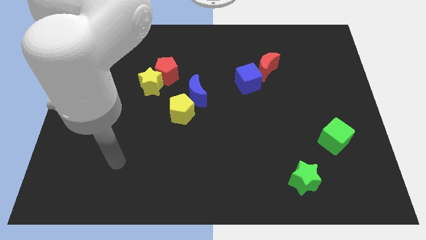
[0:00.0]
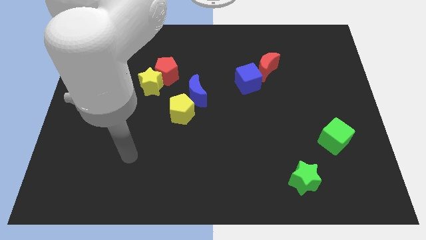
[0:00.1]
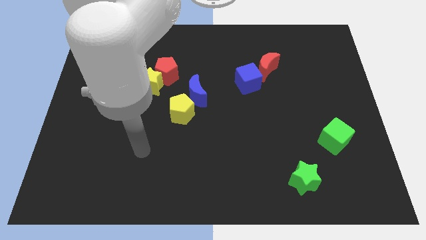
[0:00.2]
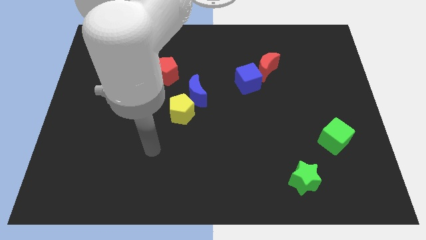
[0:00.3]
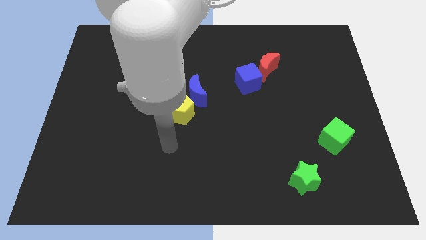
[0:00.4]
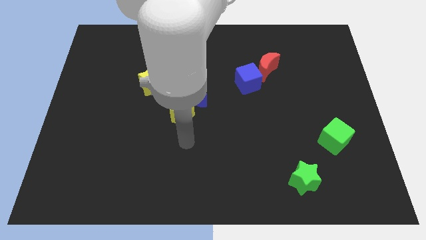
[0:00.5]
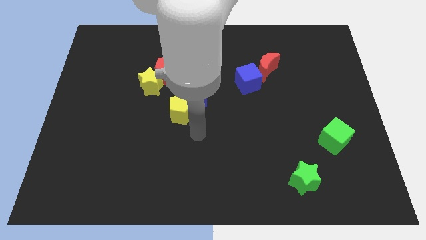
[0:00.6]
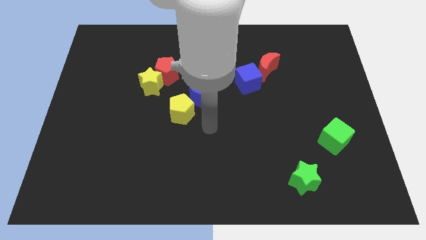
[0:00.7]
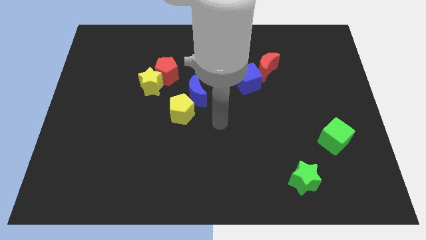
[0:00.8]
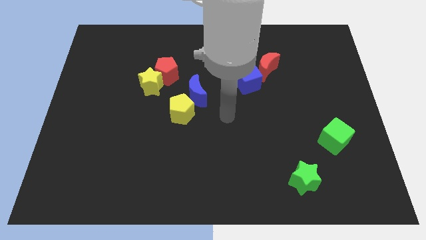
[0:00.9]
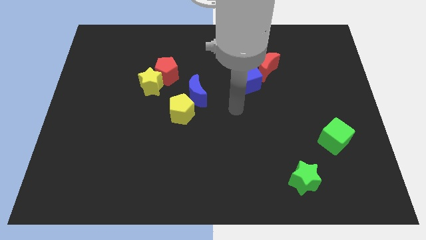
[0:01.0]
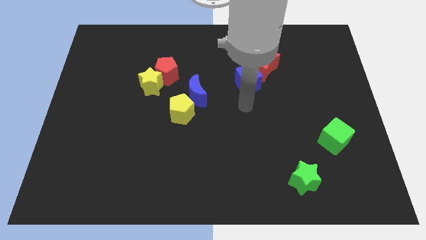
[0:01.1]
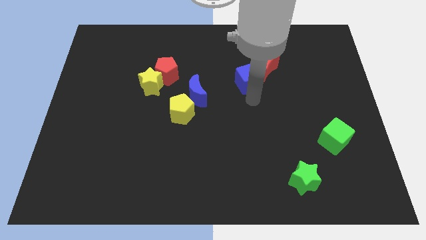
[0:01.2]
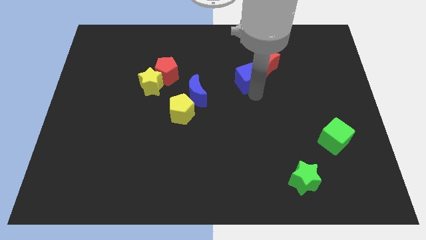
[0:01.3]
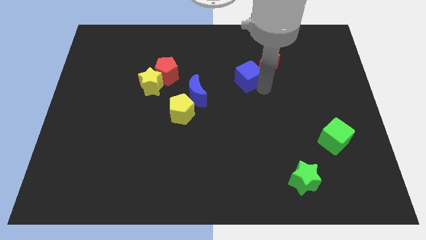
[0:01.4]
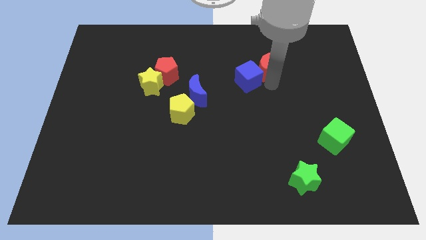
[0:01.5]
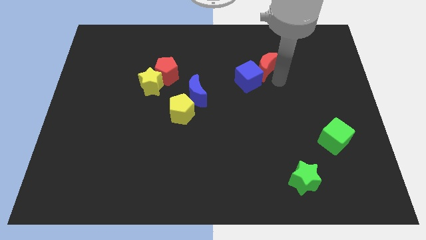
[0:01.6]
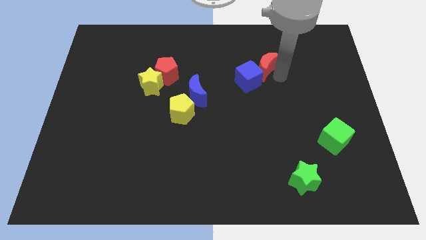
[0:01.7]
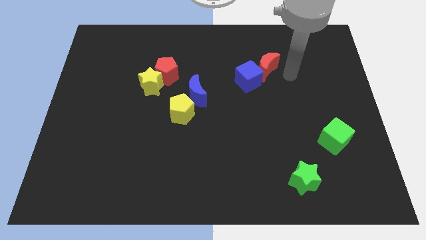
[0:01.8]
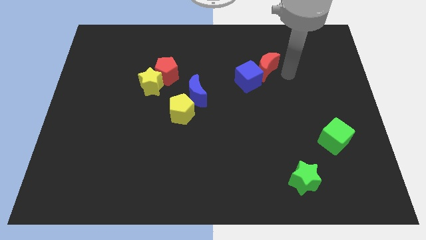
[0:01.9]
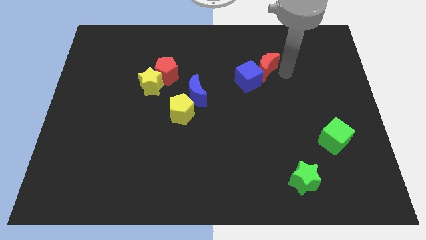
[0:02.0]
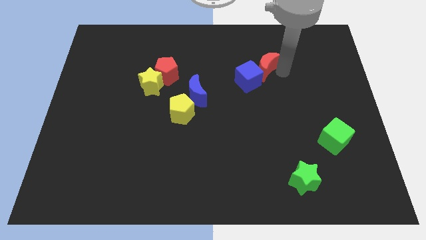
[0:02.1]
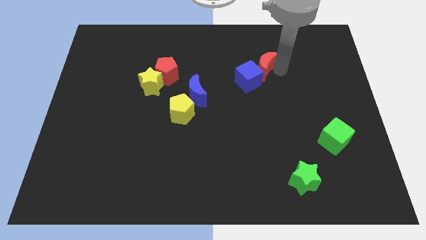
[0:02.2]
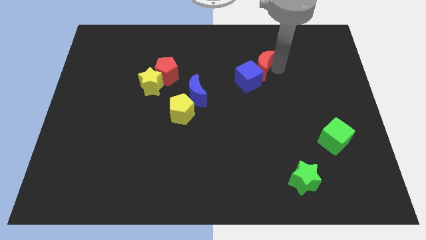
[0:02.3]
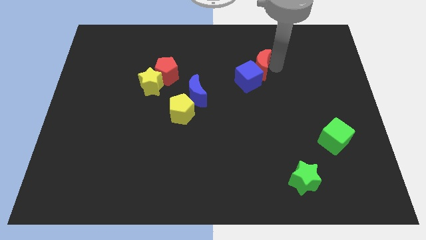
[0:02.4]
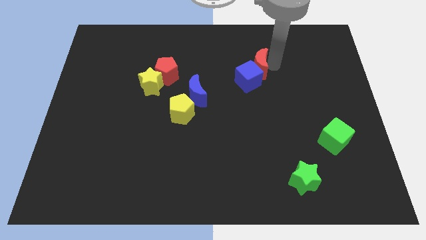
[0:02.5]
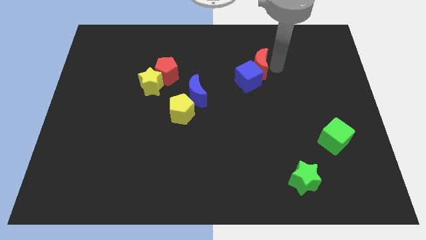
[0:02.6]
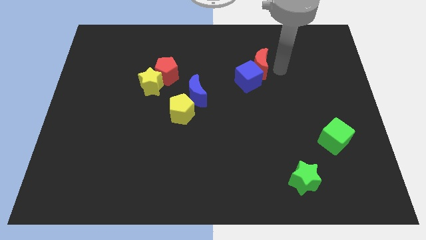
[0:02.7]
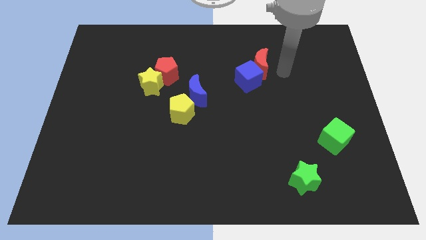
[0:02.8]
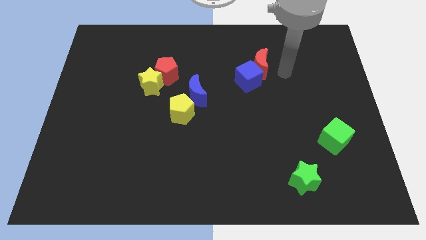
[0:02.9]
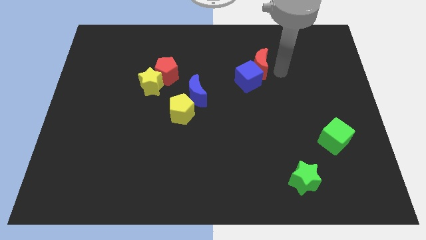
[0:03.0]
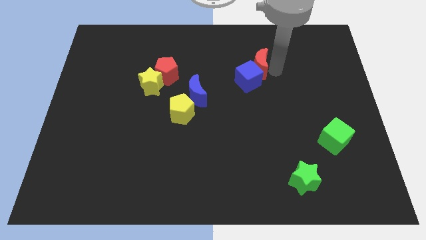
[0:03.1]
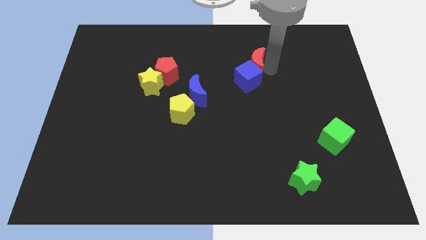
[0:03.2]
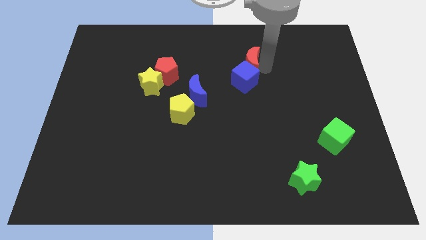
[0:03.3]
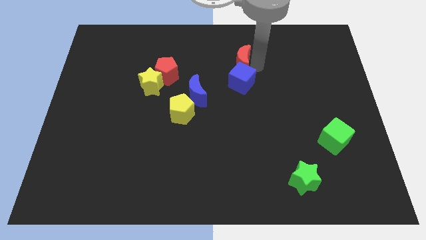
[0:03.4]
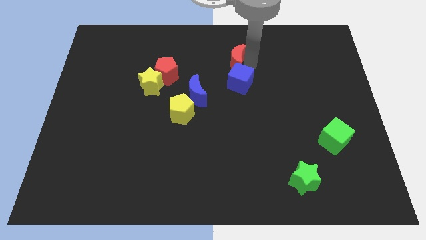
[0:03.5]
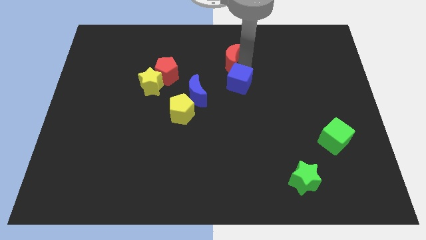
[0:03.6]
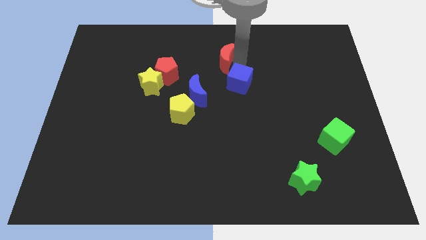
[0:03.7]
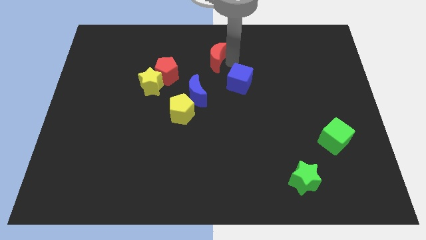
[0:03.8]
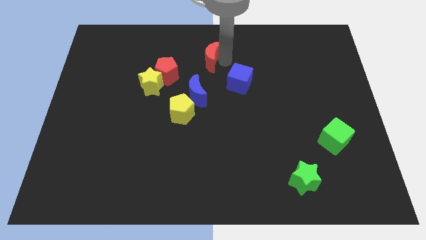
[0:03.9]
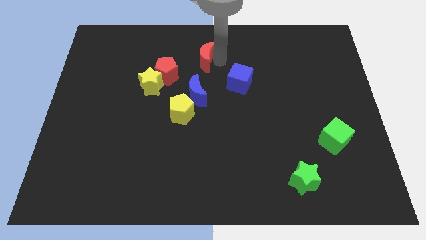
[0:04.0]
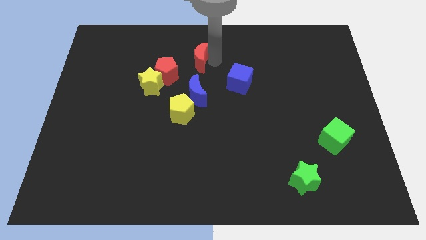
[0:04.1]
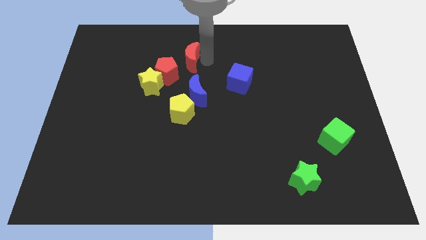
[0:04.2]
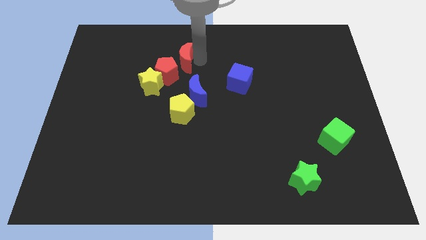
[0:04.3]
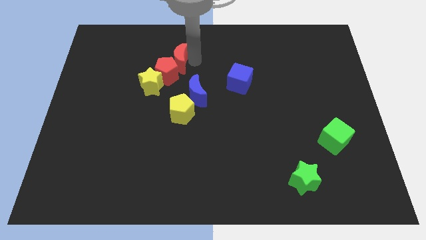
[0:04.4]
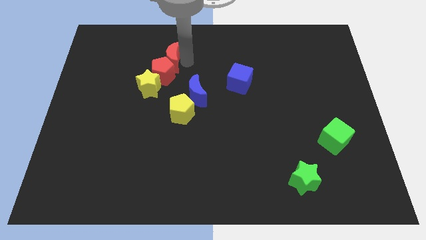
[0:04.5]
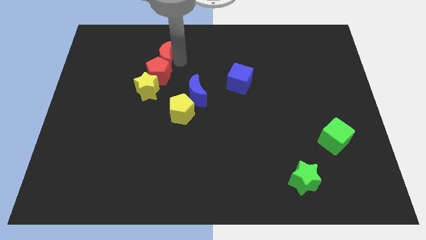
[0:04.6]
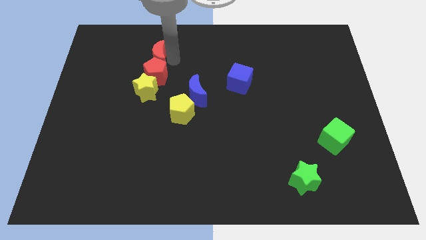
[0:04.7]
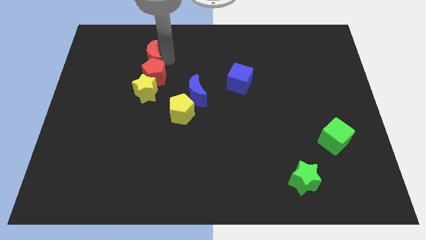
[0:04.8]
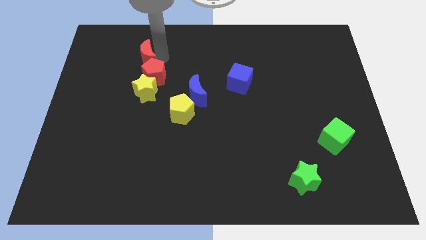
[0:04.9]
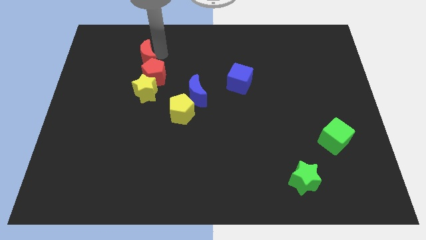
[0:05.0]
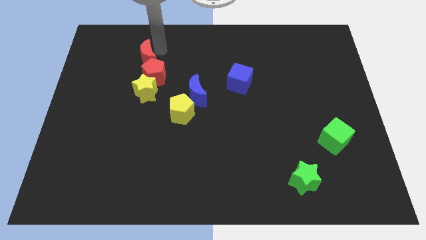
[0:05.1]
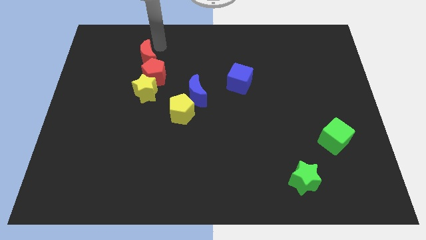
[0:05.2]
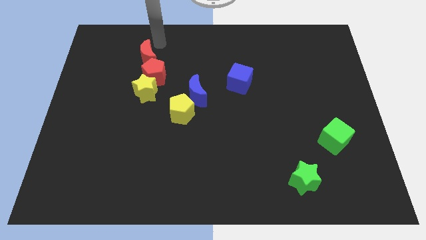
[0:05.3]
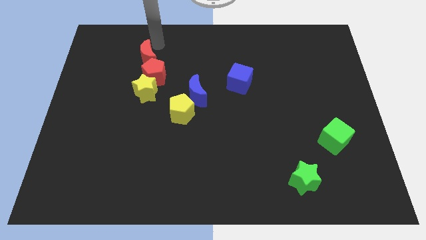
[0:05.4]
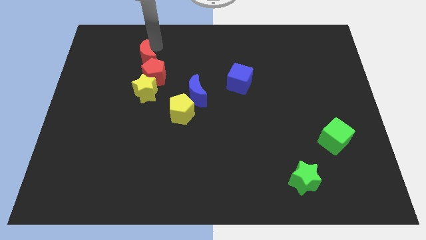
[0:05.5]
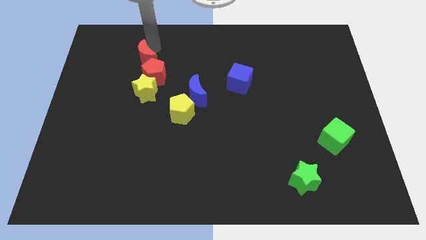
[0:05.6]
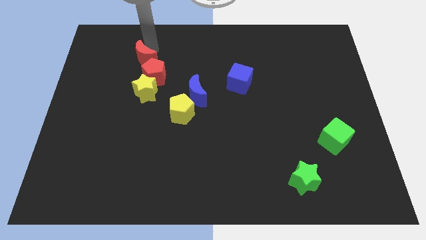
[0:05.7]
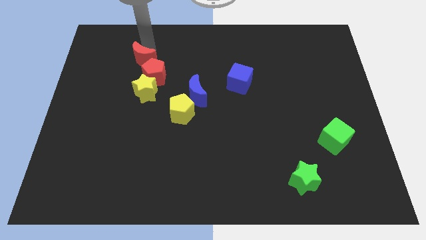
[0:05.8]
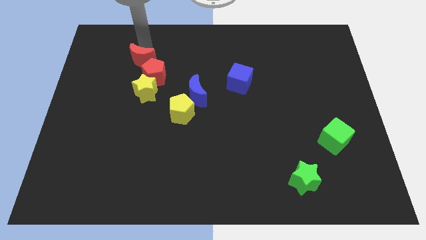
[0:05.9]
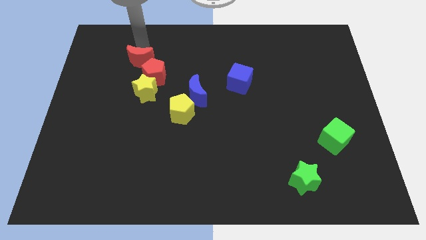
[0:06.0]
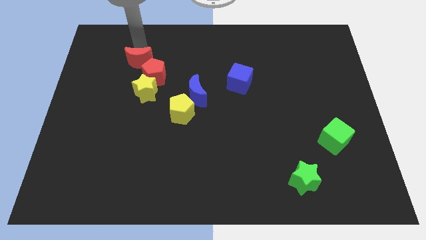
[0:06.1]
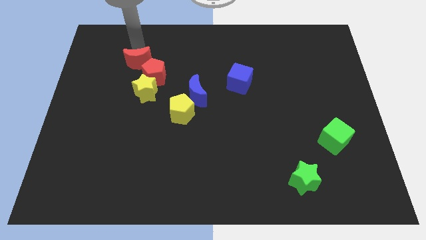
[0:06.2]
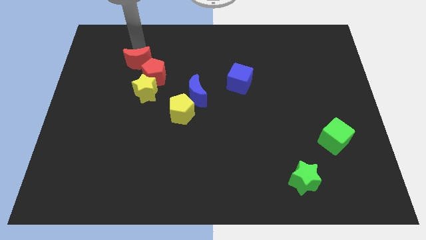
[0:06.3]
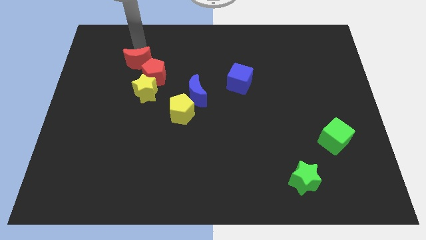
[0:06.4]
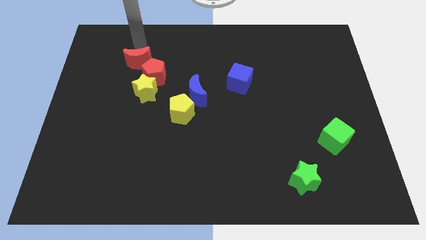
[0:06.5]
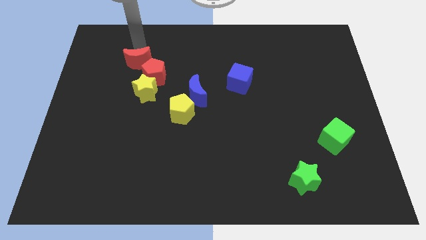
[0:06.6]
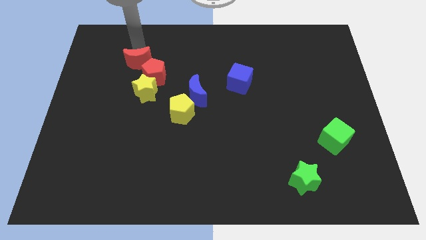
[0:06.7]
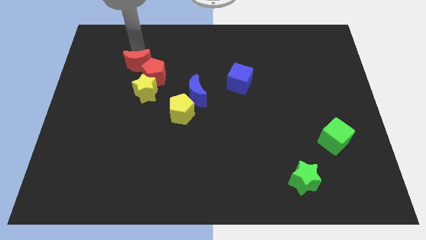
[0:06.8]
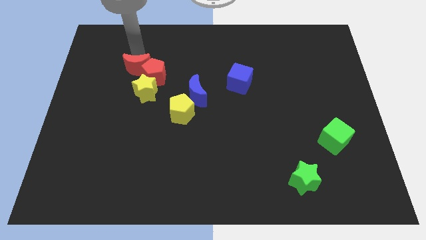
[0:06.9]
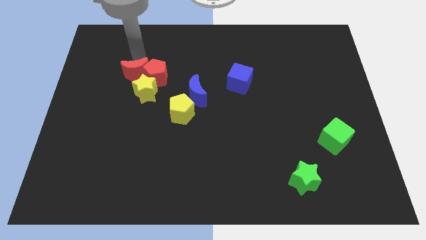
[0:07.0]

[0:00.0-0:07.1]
move the red moon to the bottom left side of the red pentagon

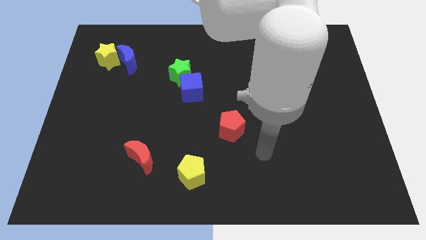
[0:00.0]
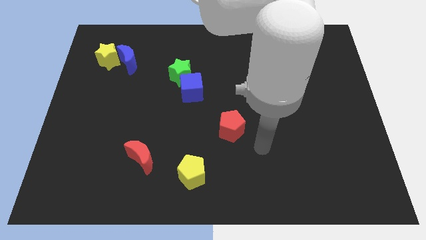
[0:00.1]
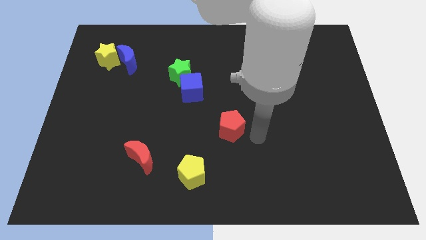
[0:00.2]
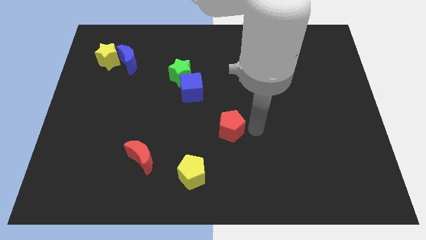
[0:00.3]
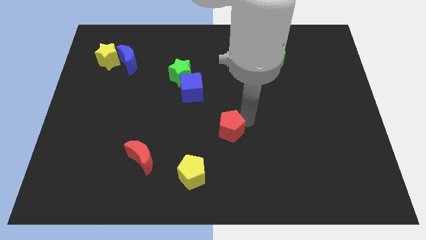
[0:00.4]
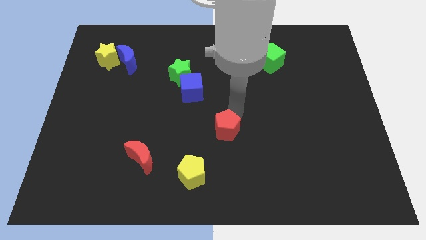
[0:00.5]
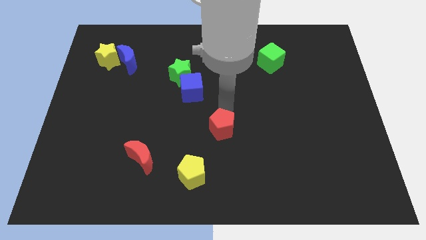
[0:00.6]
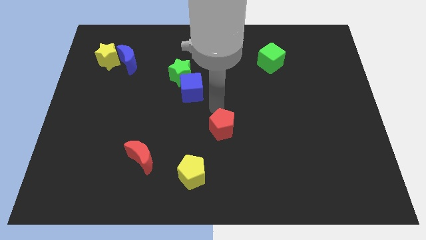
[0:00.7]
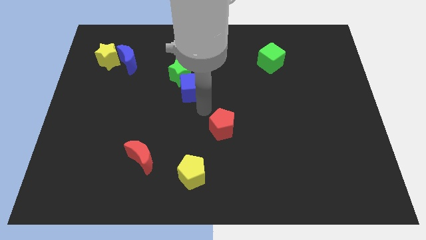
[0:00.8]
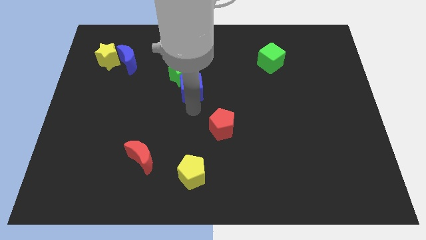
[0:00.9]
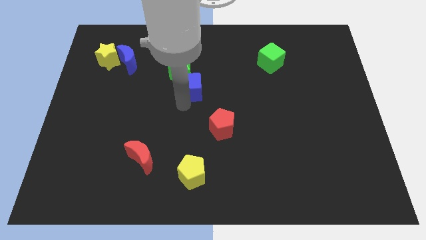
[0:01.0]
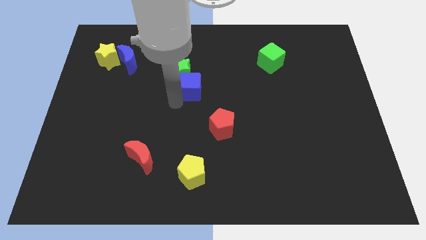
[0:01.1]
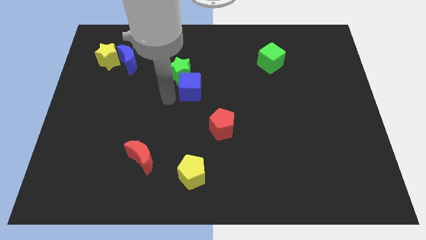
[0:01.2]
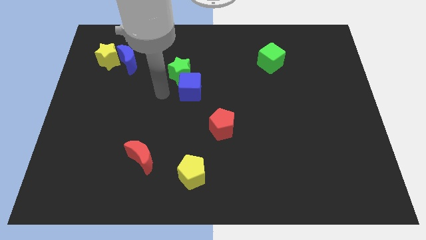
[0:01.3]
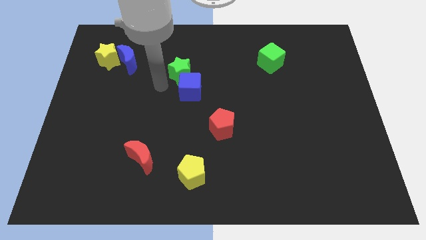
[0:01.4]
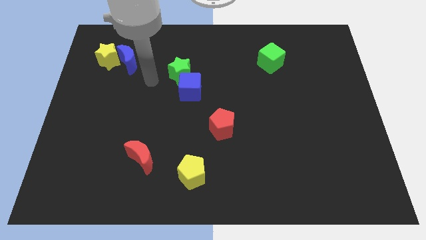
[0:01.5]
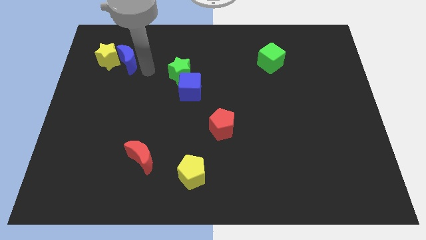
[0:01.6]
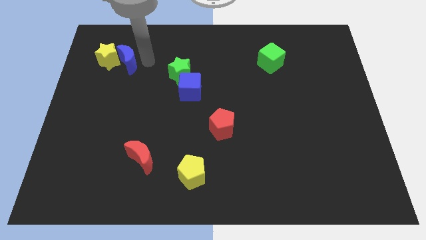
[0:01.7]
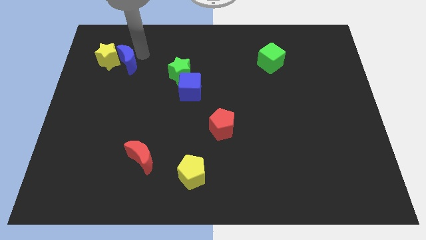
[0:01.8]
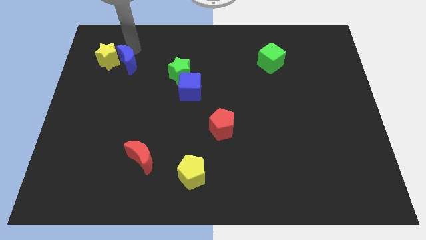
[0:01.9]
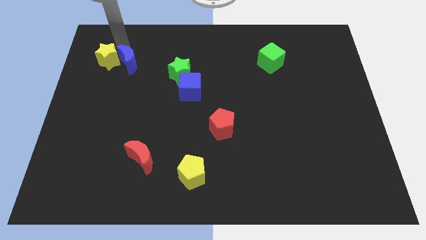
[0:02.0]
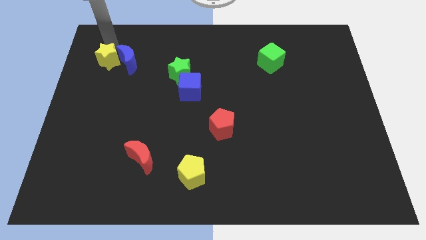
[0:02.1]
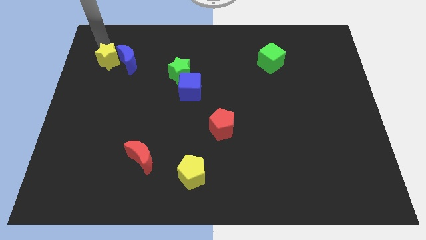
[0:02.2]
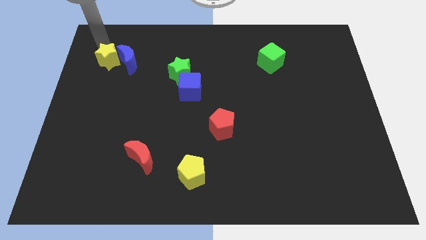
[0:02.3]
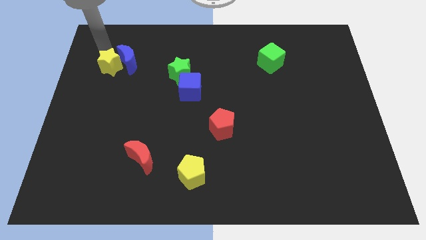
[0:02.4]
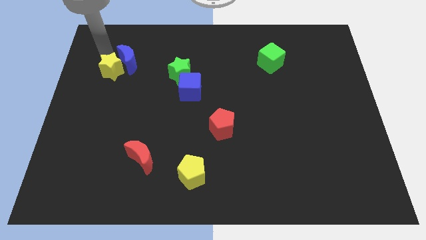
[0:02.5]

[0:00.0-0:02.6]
push the yellow star to the bottom of the blue moon
